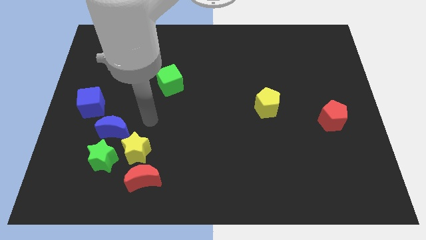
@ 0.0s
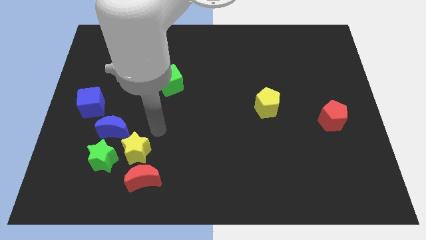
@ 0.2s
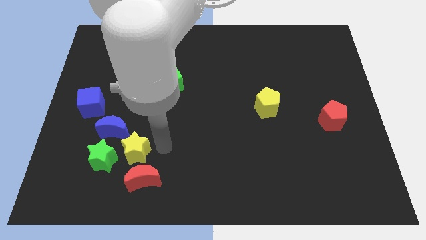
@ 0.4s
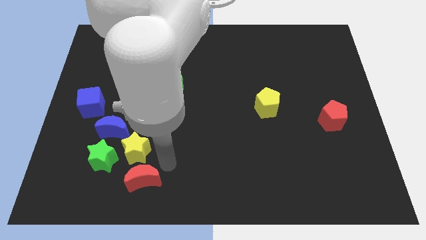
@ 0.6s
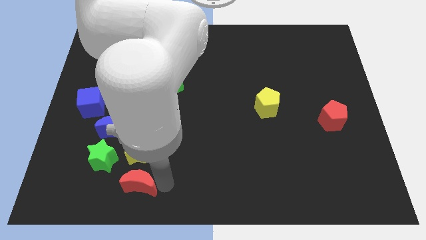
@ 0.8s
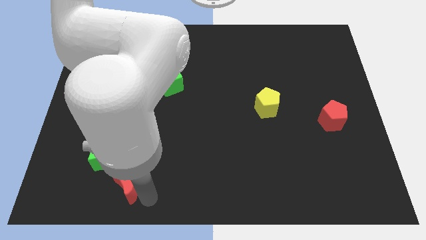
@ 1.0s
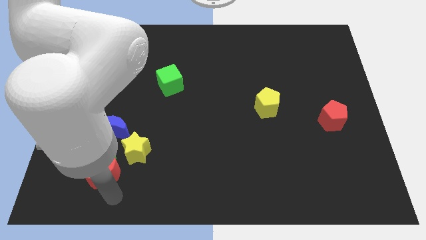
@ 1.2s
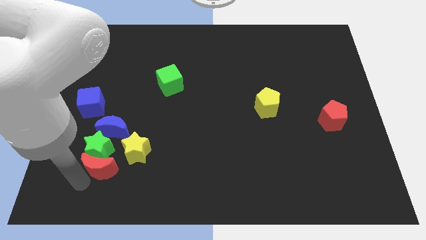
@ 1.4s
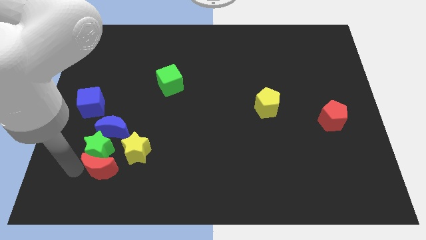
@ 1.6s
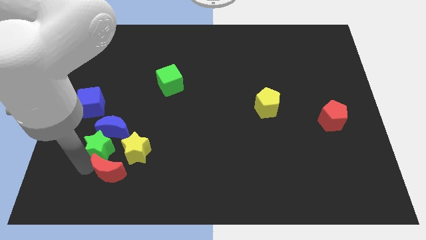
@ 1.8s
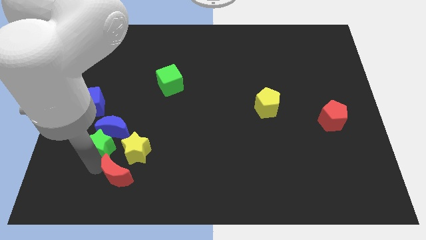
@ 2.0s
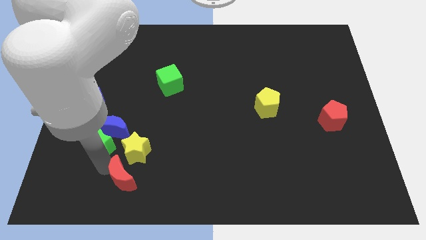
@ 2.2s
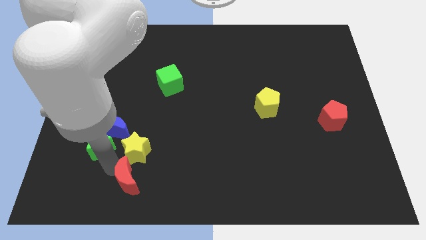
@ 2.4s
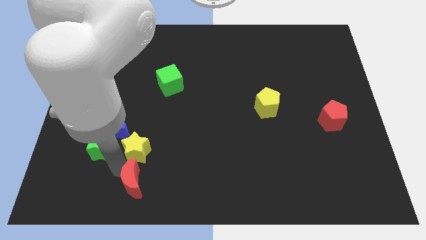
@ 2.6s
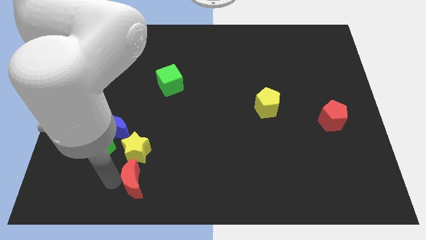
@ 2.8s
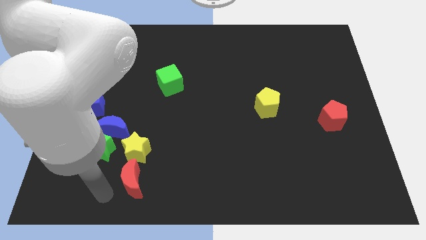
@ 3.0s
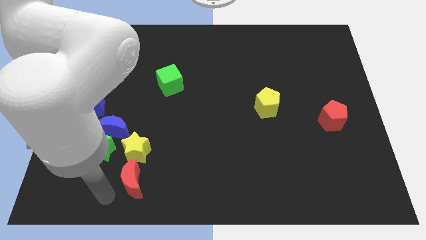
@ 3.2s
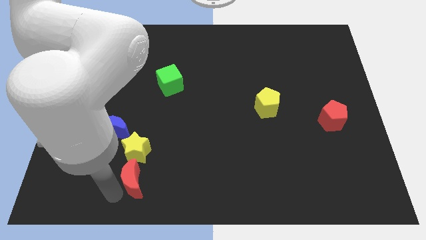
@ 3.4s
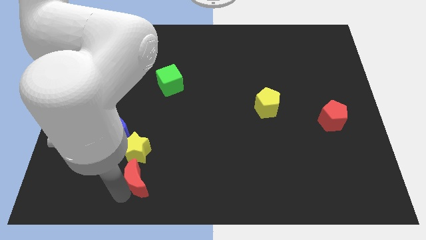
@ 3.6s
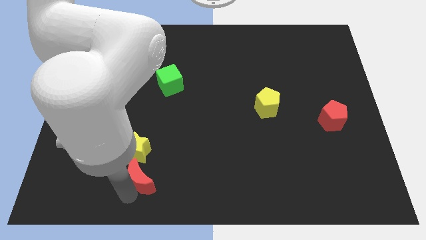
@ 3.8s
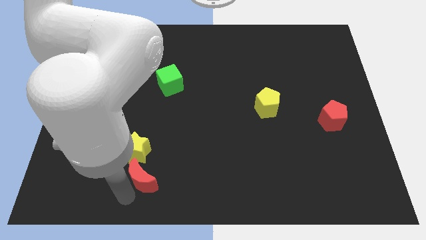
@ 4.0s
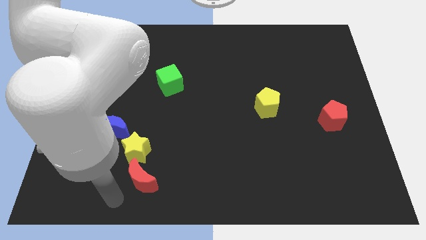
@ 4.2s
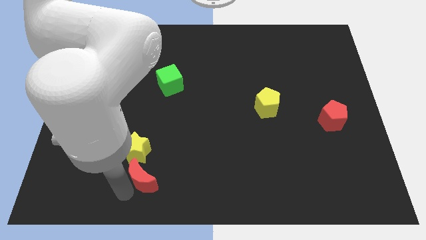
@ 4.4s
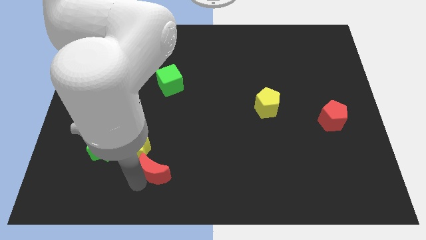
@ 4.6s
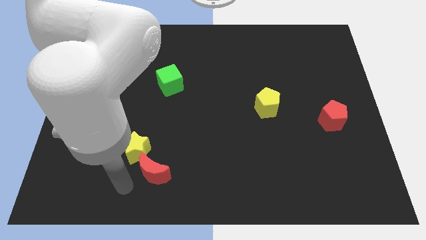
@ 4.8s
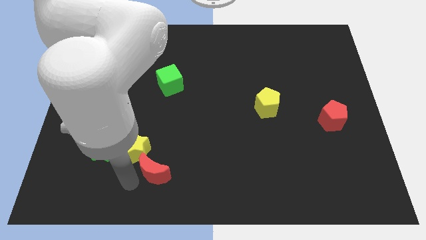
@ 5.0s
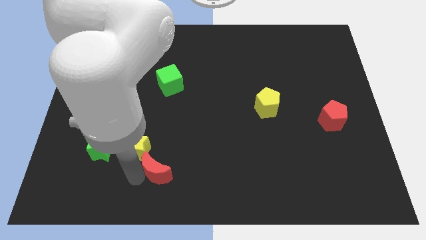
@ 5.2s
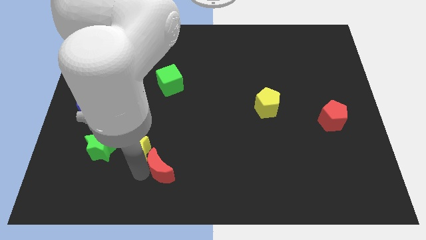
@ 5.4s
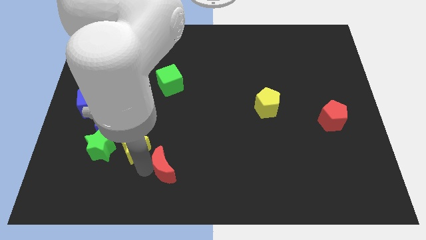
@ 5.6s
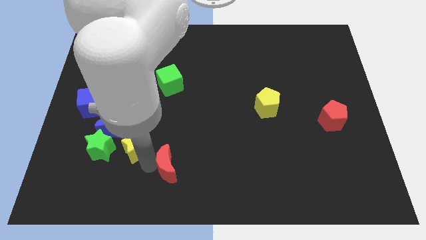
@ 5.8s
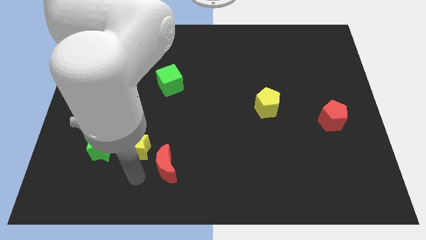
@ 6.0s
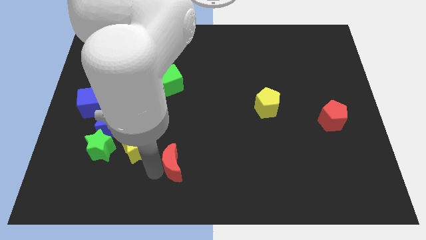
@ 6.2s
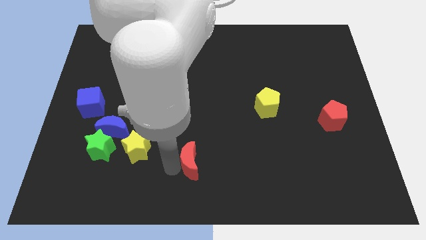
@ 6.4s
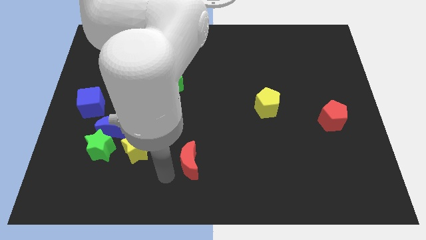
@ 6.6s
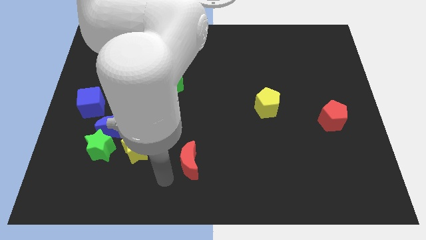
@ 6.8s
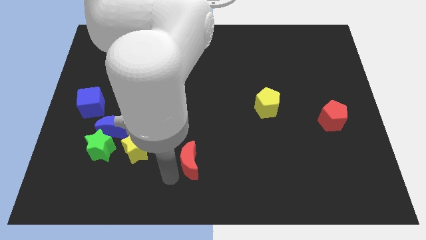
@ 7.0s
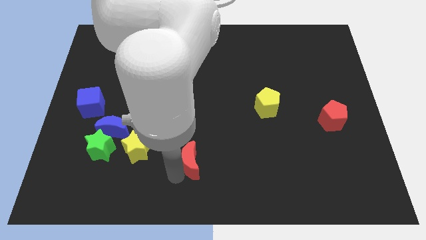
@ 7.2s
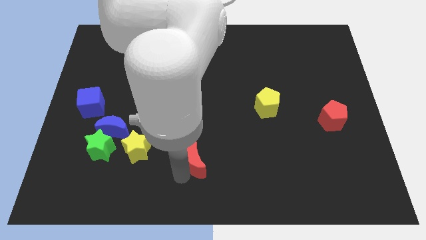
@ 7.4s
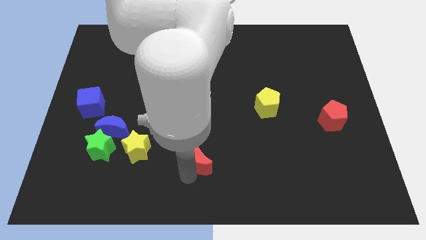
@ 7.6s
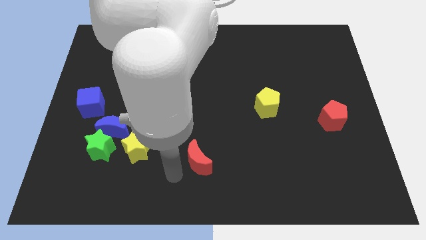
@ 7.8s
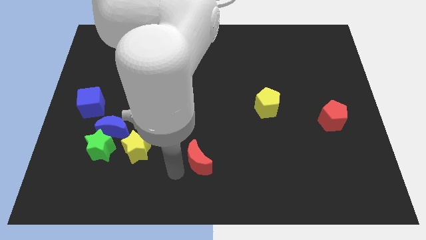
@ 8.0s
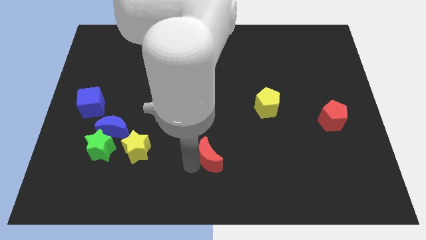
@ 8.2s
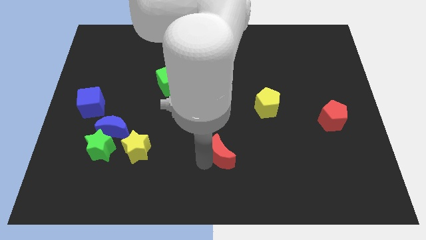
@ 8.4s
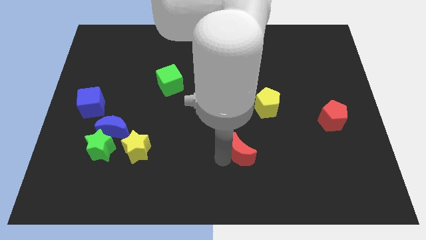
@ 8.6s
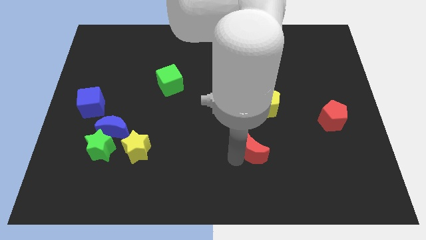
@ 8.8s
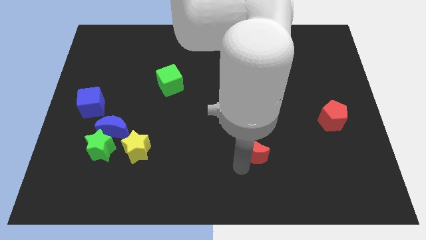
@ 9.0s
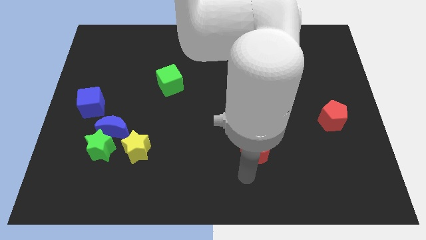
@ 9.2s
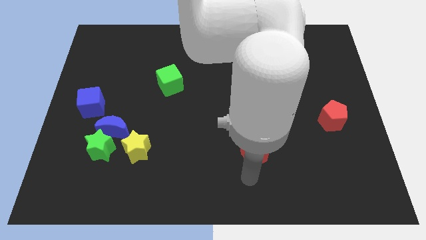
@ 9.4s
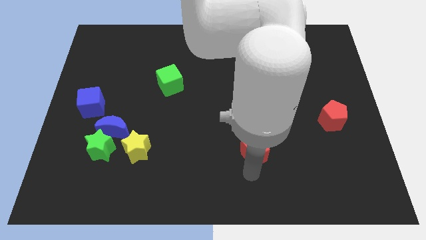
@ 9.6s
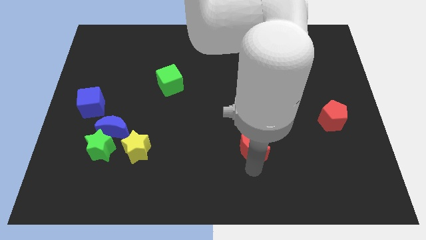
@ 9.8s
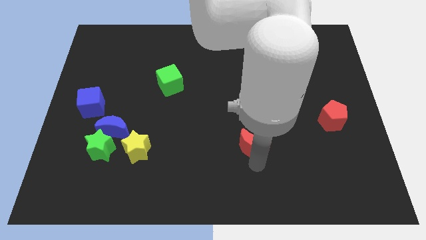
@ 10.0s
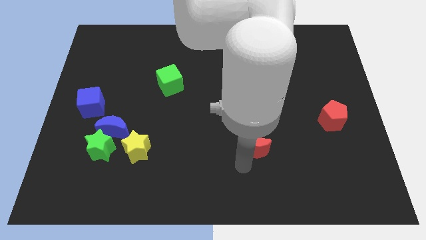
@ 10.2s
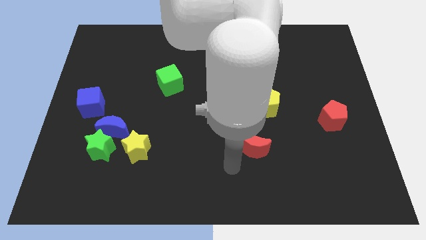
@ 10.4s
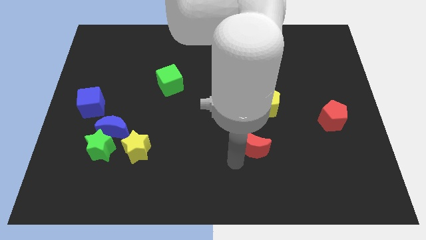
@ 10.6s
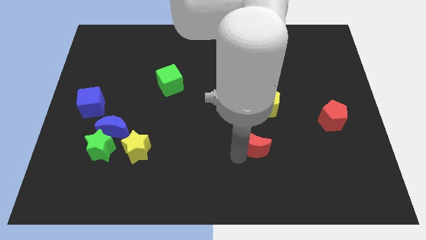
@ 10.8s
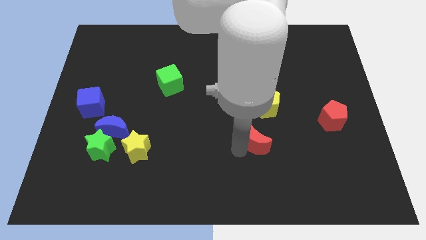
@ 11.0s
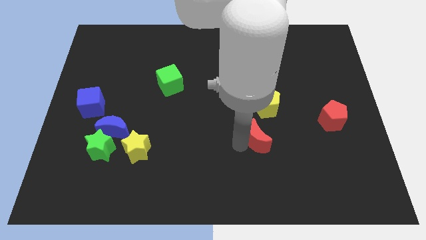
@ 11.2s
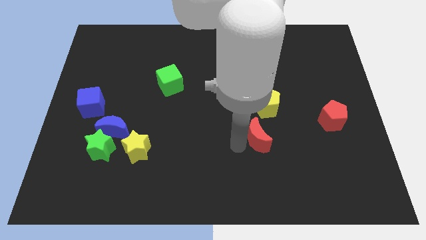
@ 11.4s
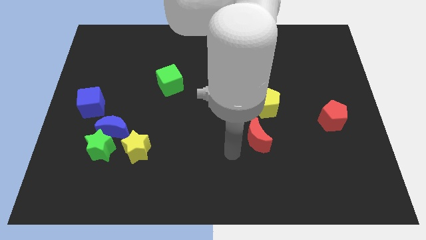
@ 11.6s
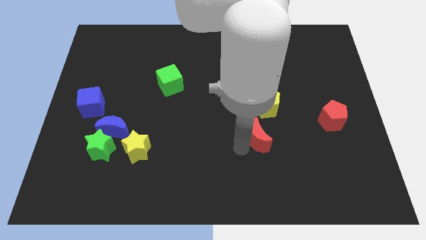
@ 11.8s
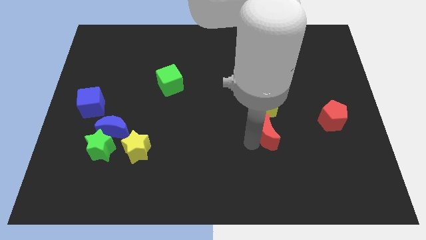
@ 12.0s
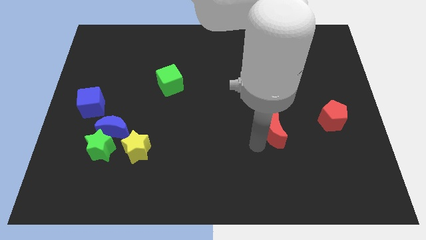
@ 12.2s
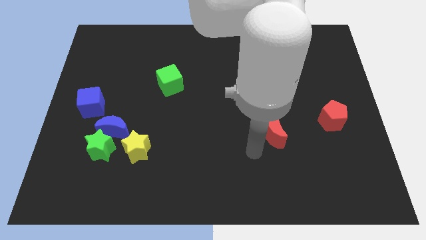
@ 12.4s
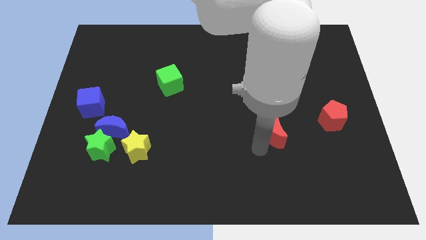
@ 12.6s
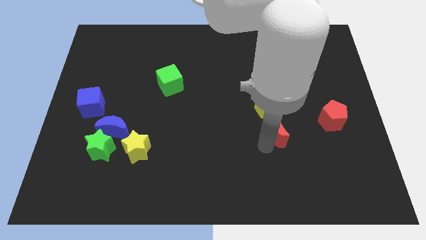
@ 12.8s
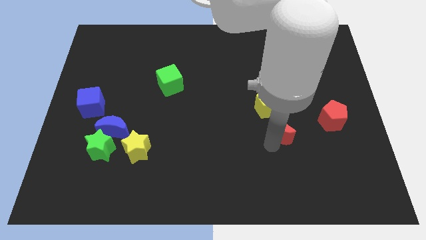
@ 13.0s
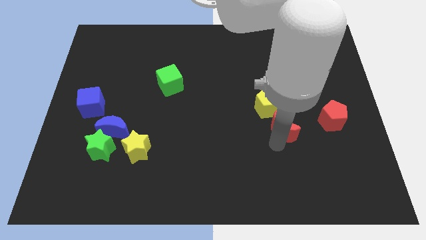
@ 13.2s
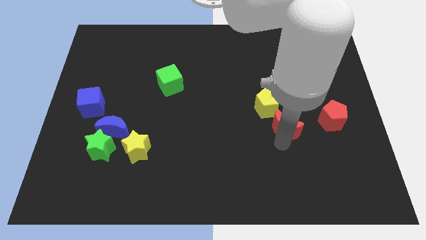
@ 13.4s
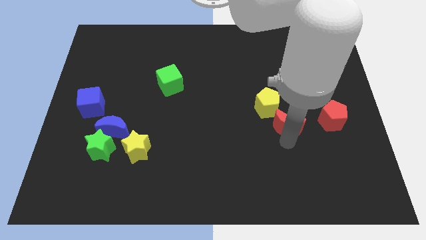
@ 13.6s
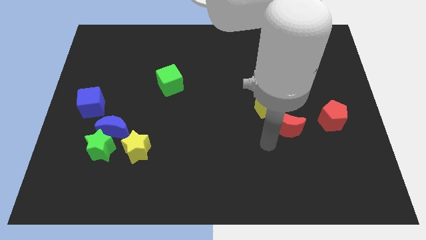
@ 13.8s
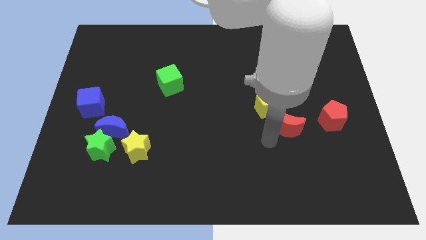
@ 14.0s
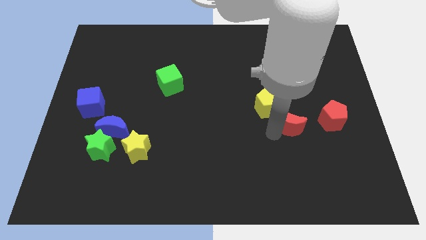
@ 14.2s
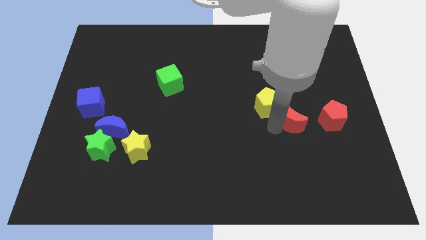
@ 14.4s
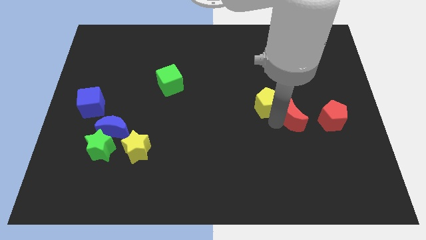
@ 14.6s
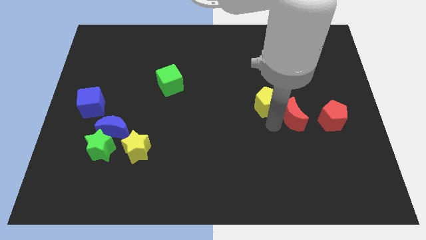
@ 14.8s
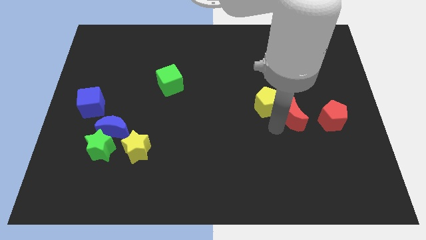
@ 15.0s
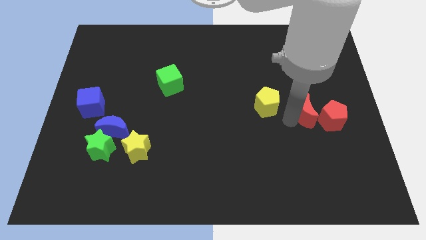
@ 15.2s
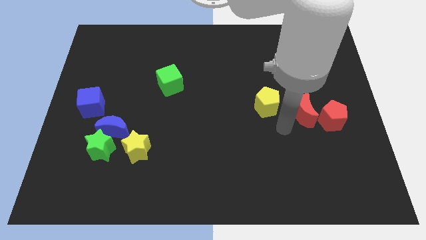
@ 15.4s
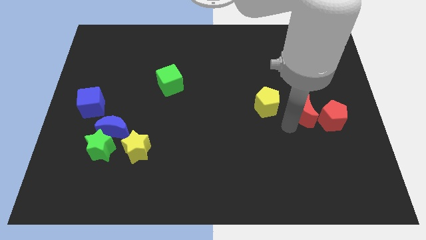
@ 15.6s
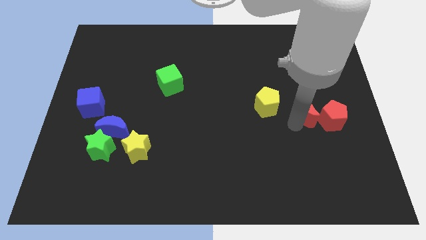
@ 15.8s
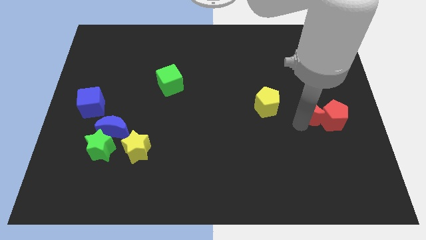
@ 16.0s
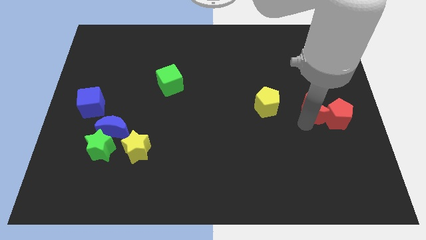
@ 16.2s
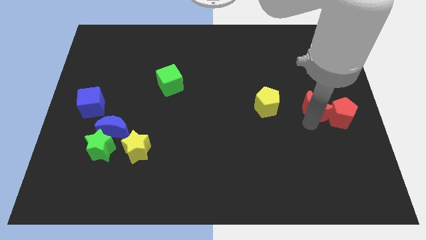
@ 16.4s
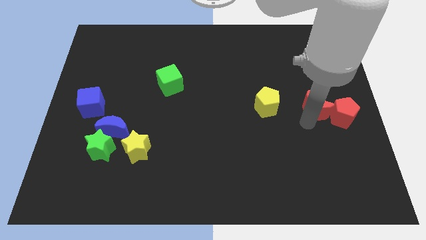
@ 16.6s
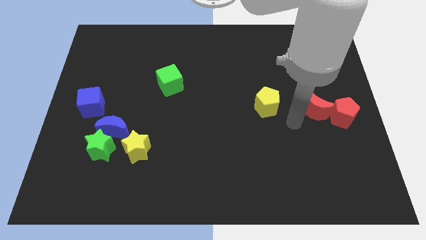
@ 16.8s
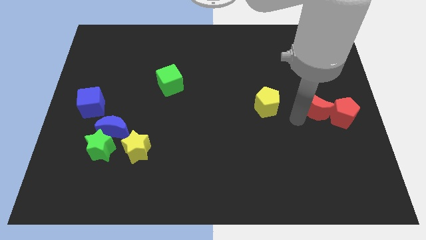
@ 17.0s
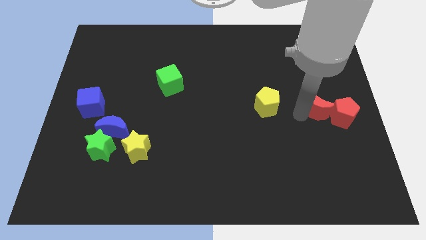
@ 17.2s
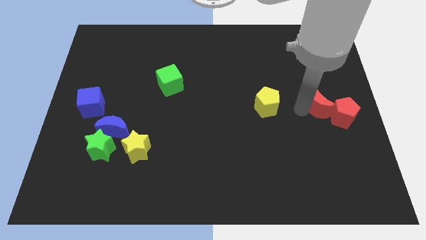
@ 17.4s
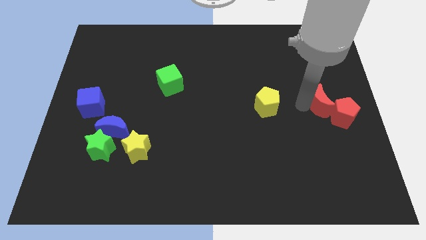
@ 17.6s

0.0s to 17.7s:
slide the red moon to the right side
